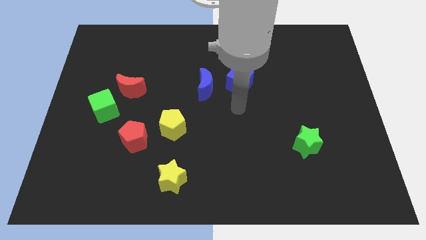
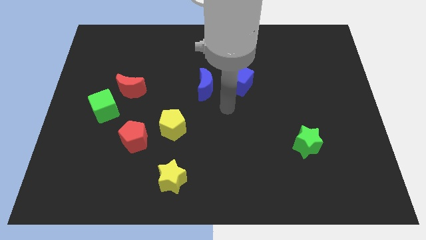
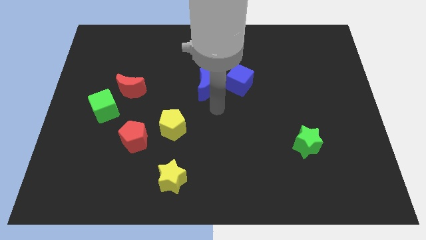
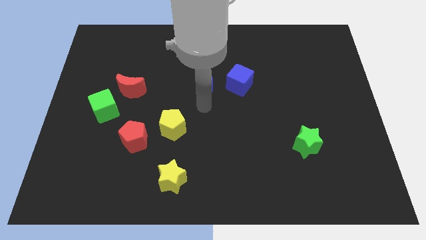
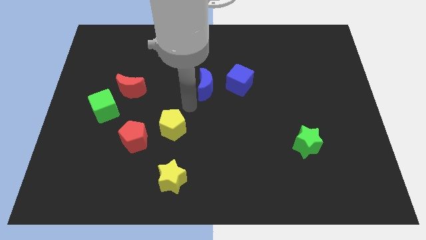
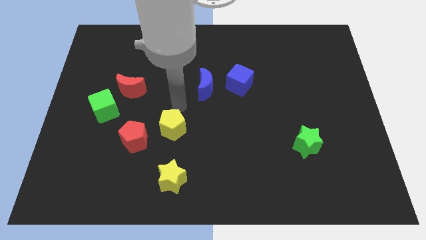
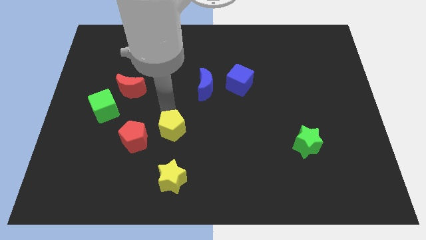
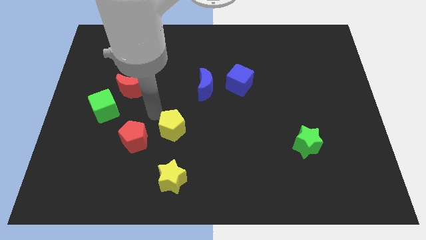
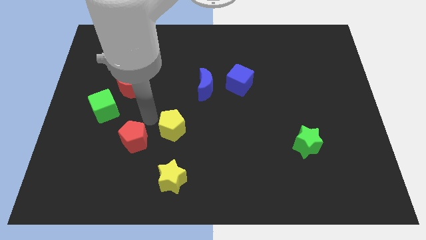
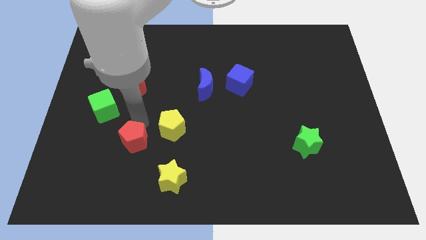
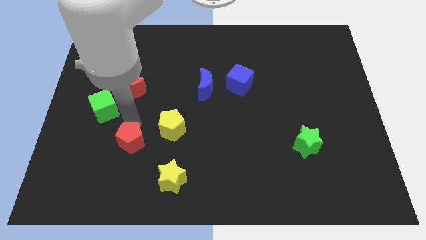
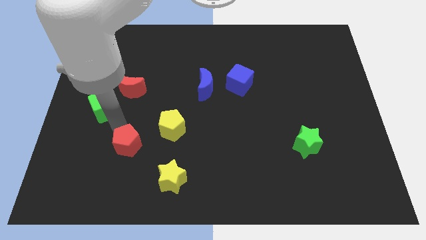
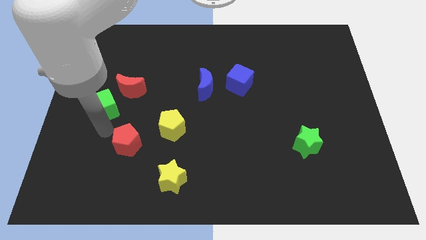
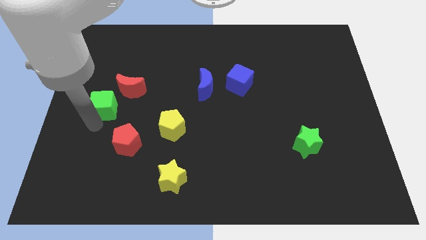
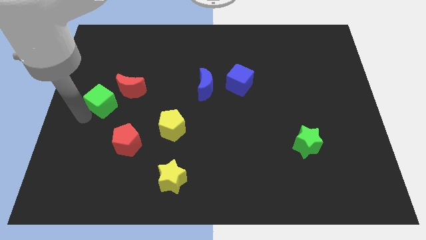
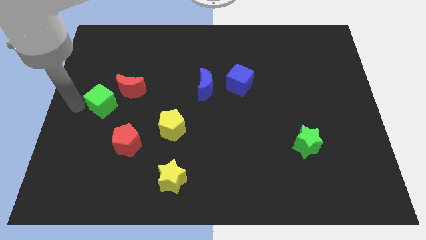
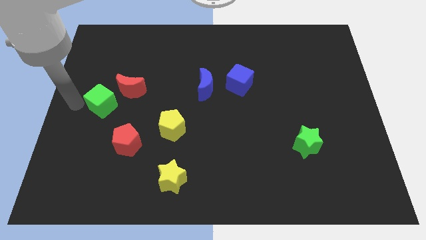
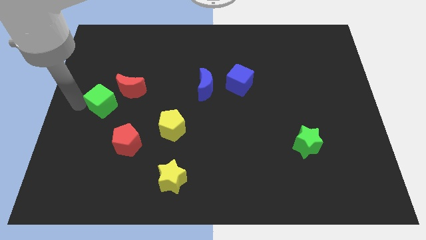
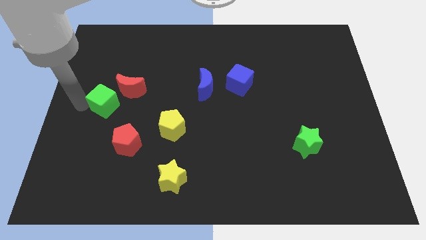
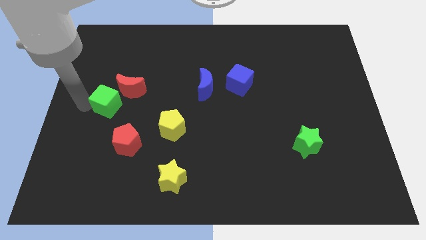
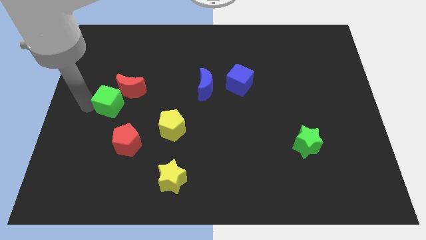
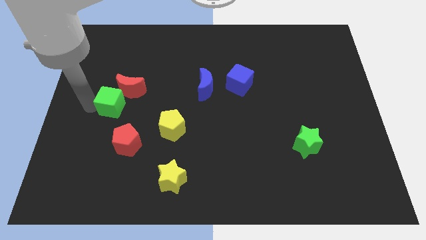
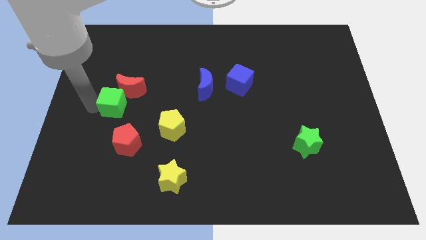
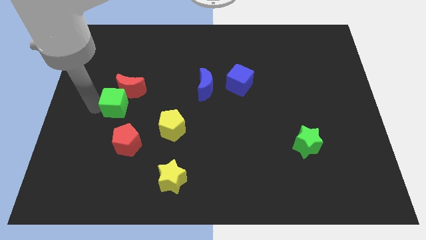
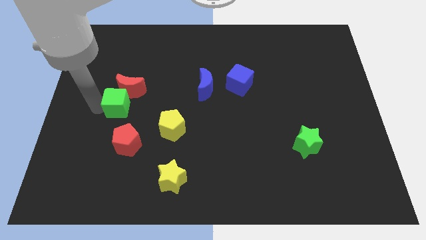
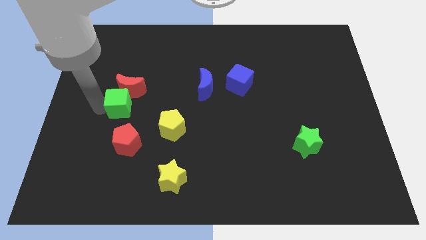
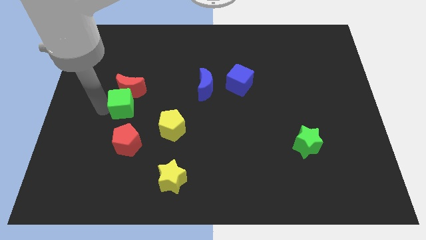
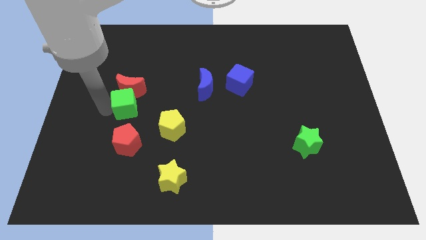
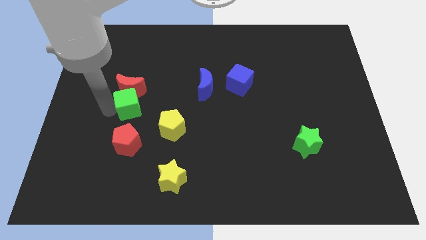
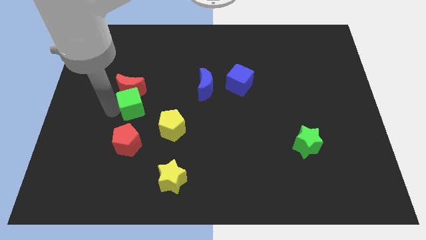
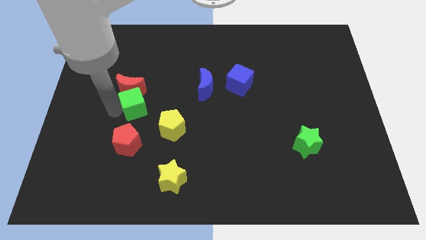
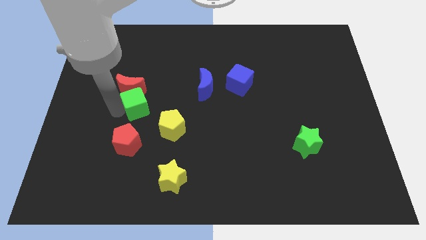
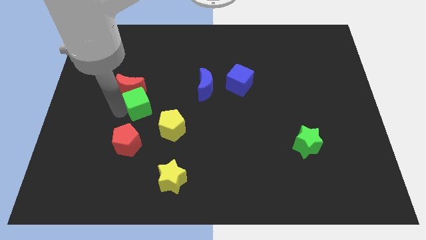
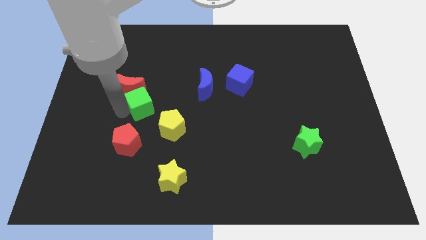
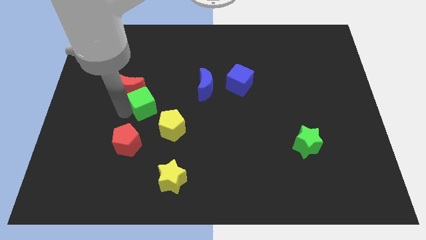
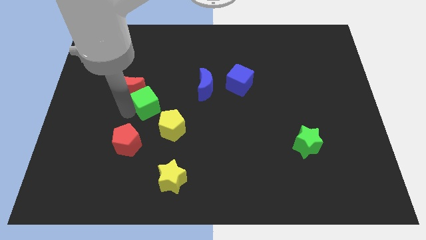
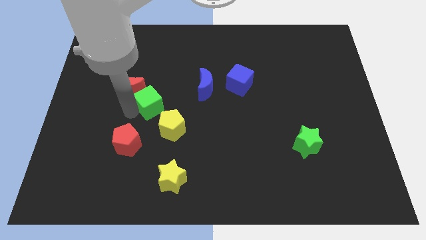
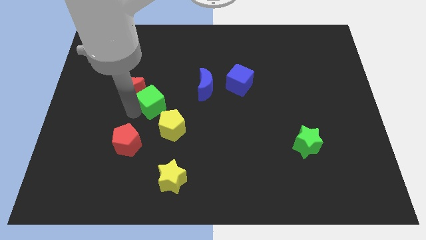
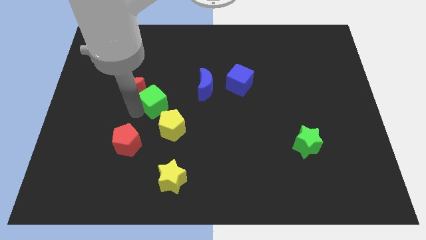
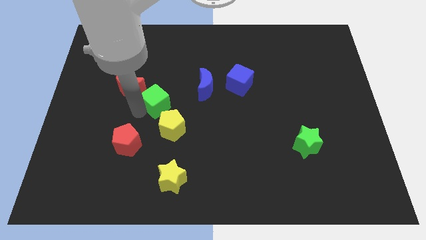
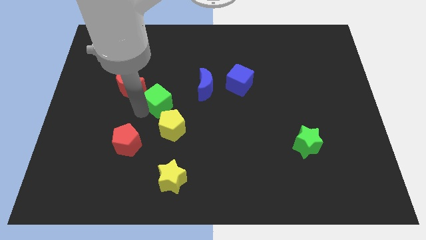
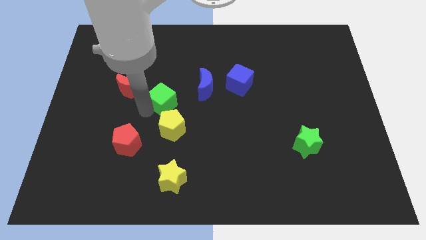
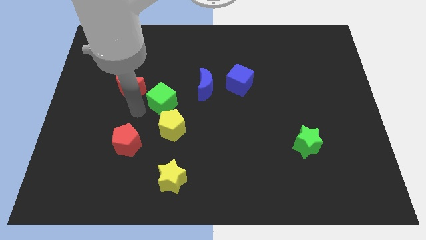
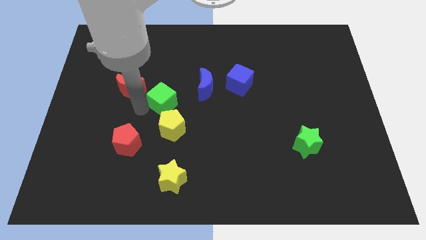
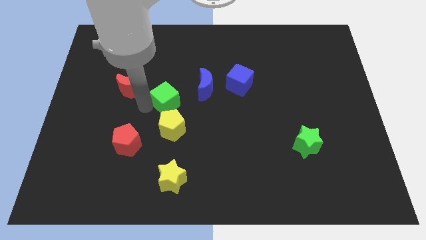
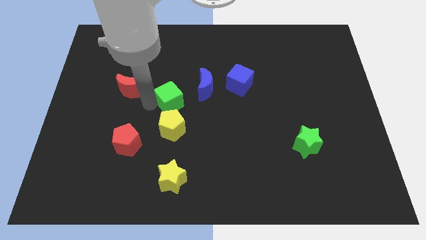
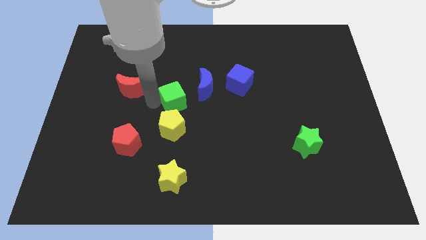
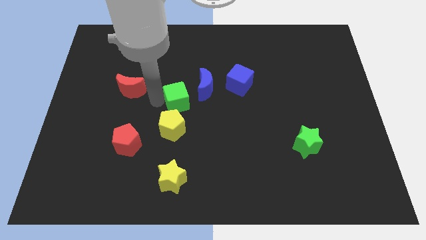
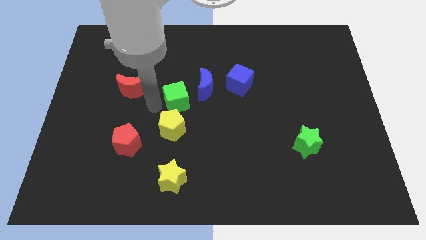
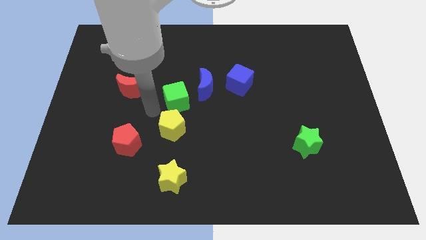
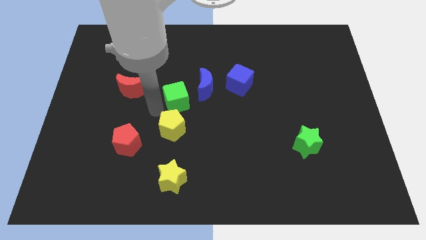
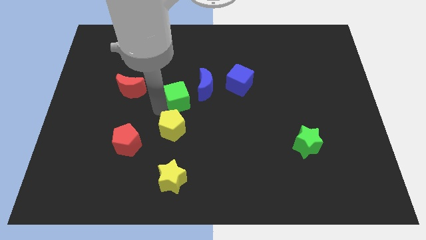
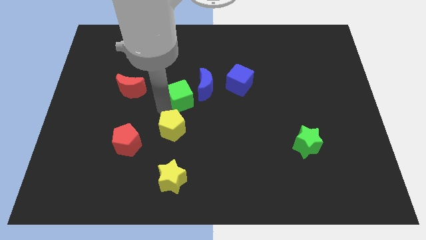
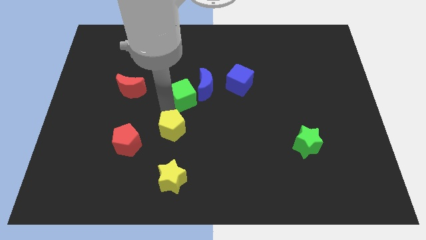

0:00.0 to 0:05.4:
move the green cube next to the blue moon

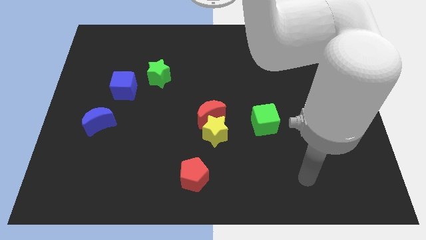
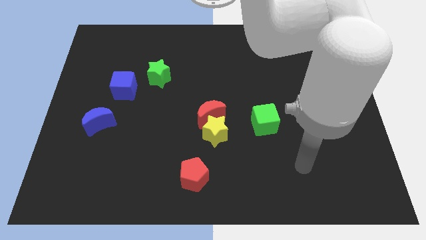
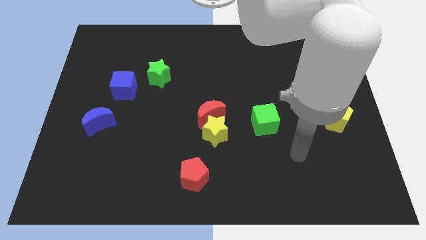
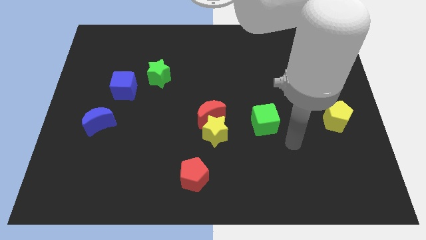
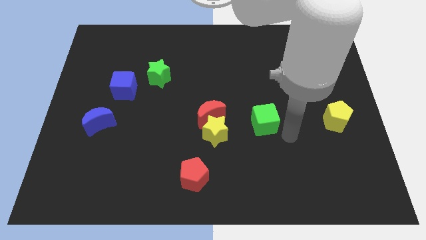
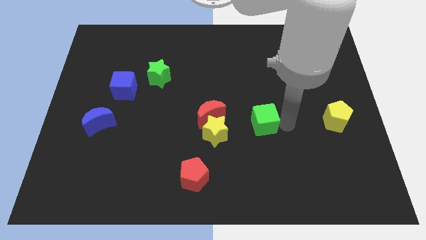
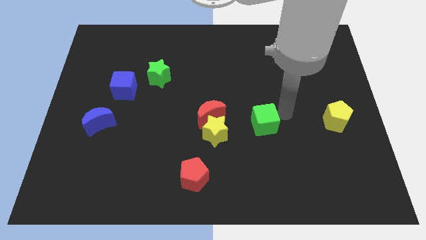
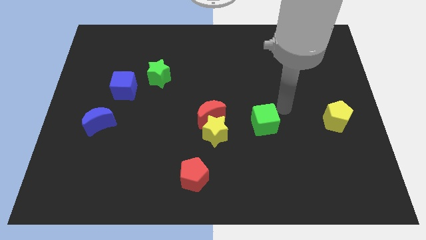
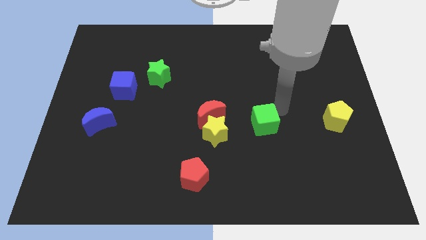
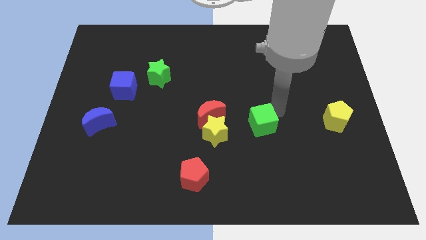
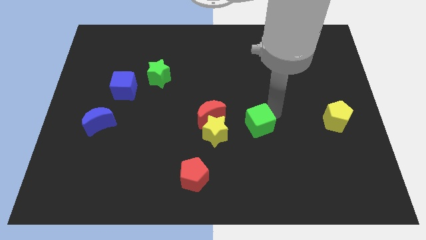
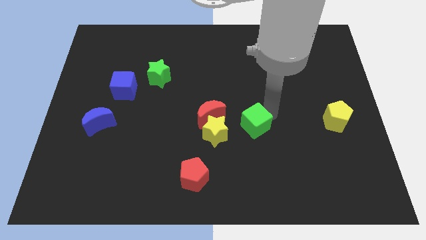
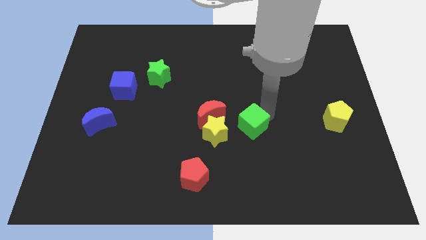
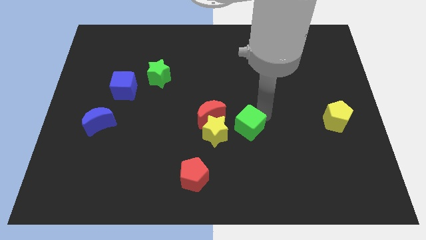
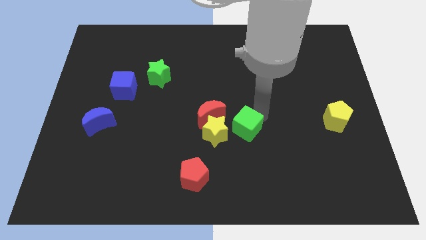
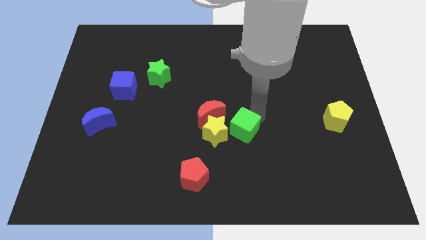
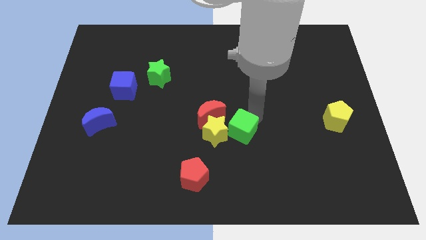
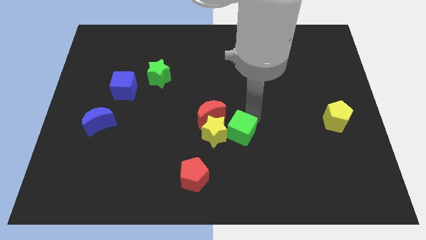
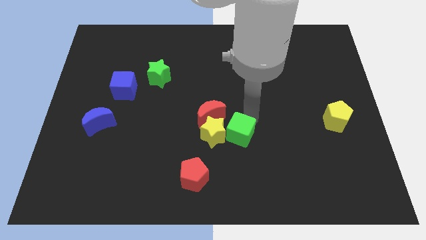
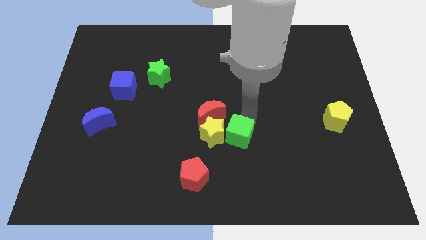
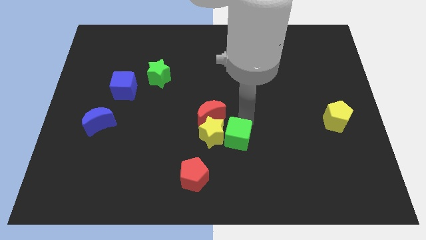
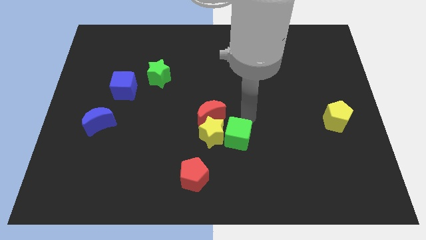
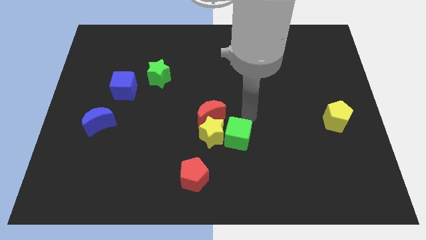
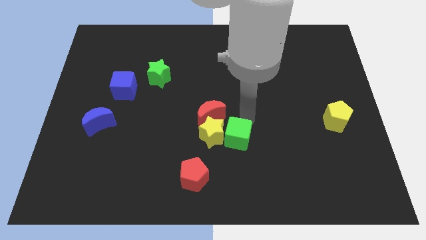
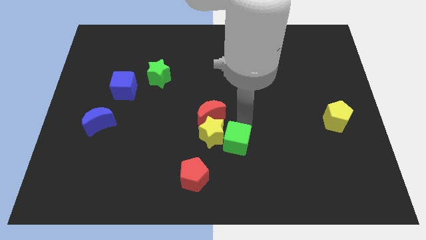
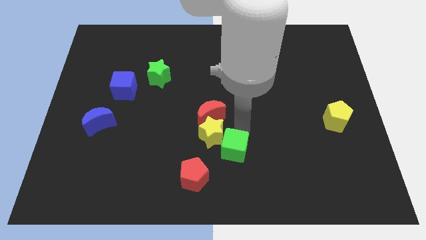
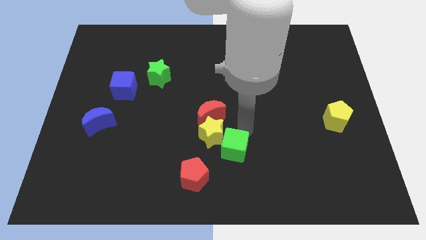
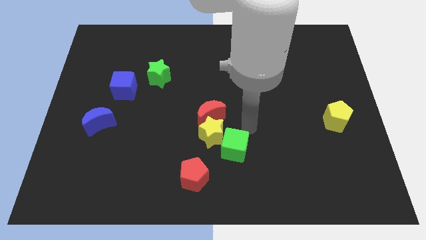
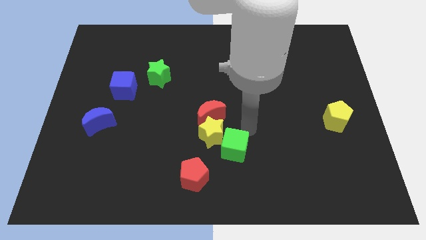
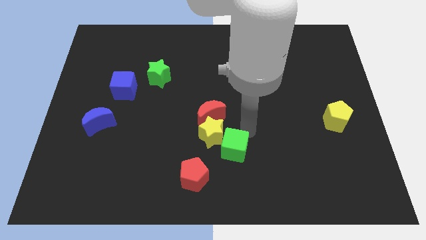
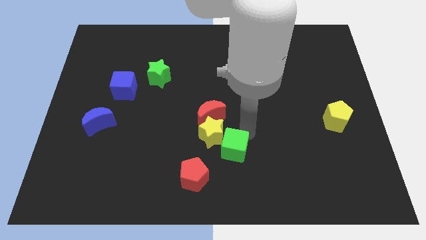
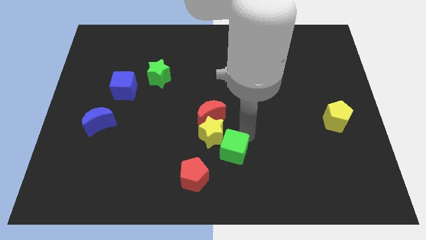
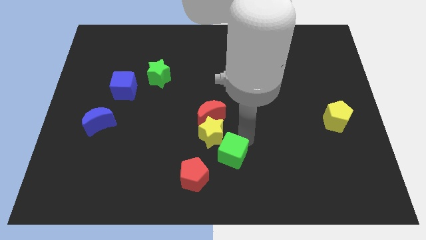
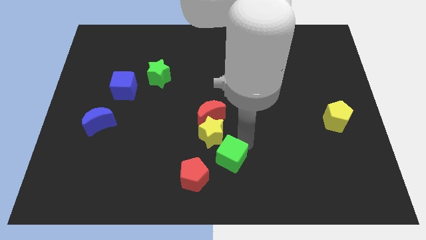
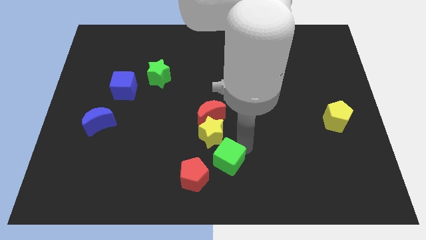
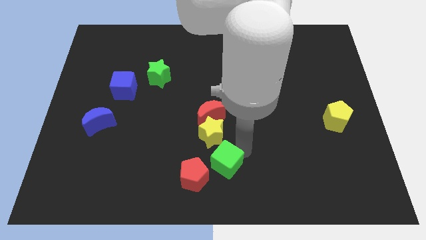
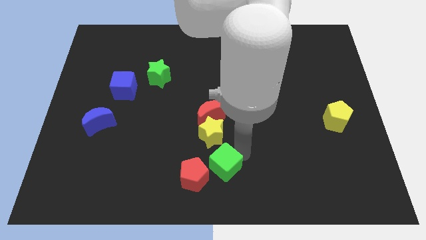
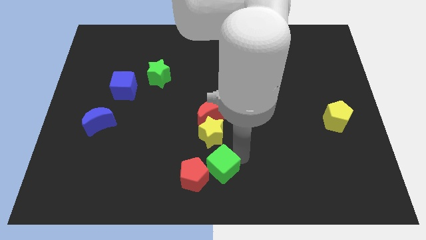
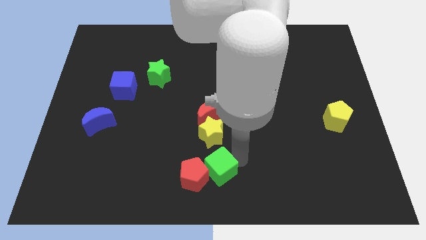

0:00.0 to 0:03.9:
slide the green cube towards the red pentagon
